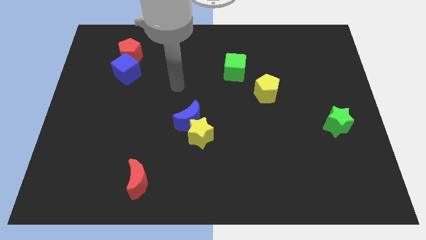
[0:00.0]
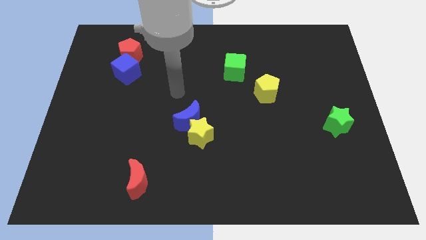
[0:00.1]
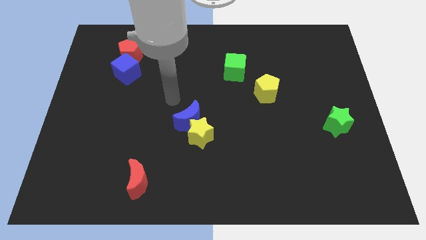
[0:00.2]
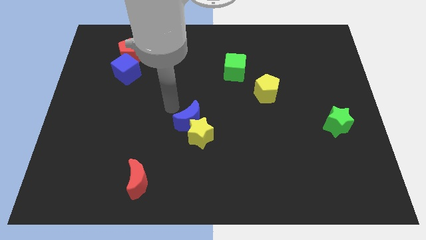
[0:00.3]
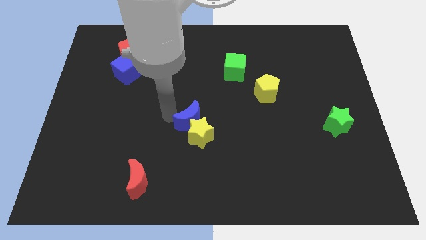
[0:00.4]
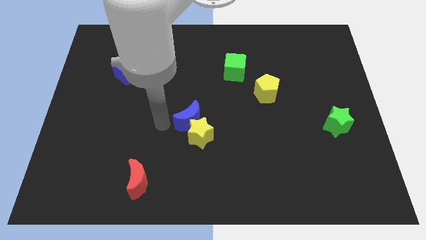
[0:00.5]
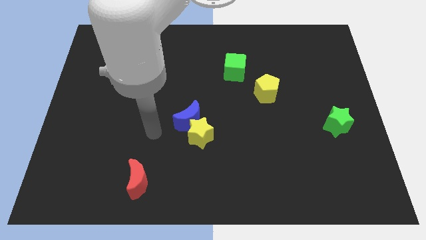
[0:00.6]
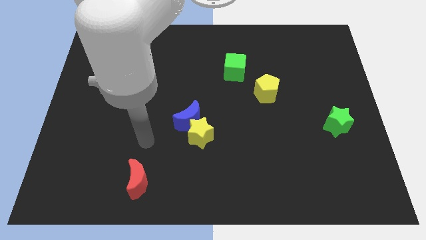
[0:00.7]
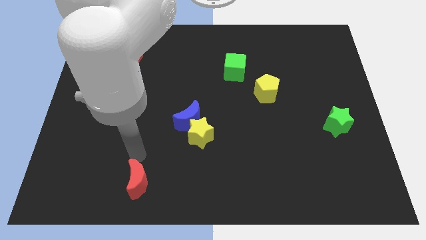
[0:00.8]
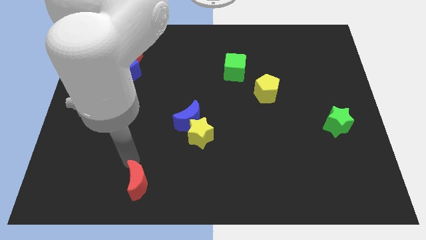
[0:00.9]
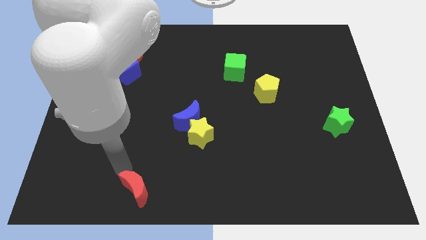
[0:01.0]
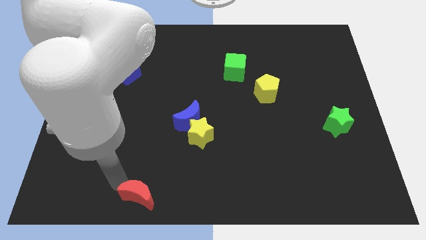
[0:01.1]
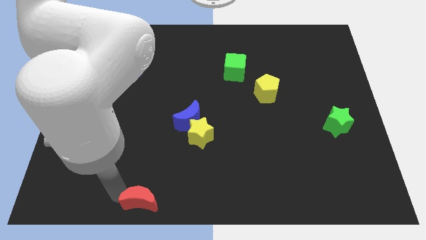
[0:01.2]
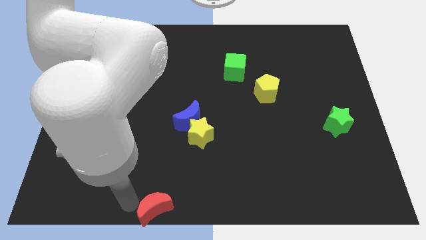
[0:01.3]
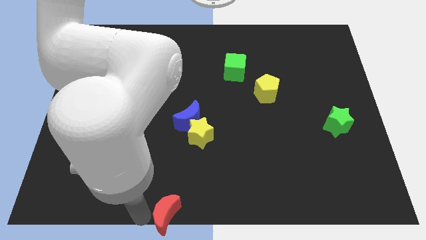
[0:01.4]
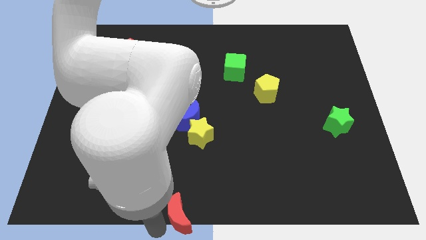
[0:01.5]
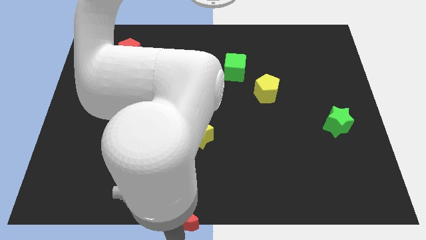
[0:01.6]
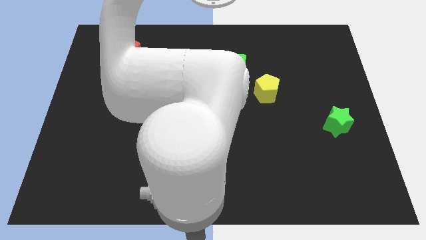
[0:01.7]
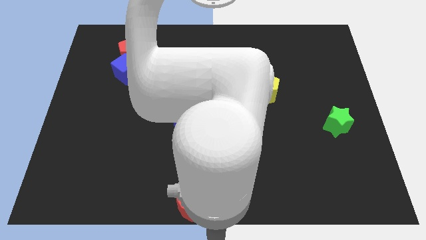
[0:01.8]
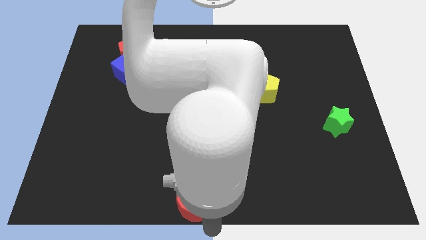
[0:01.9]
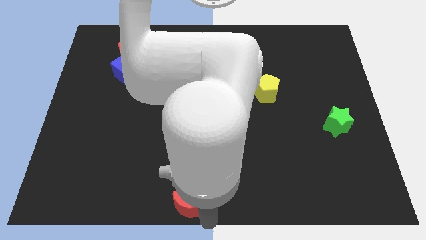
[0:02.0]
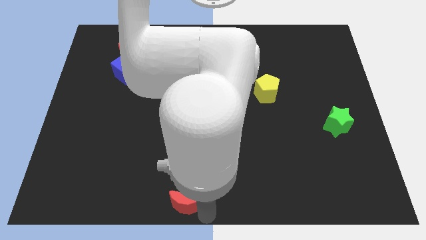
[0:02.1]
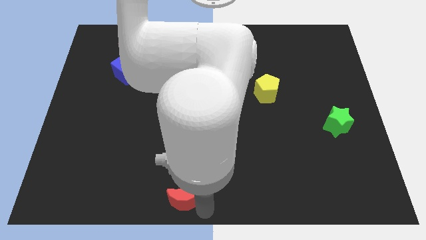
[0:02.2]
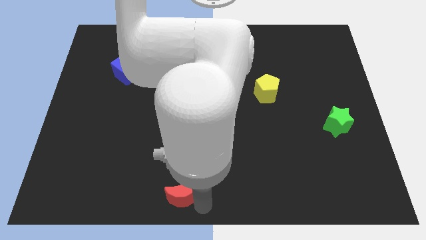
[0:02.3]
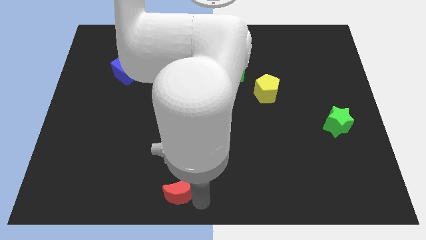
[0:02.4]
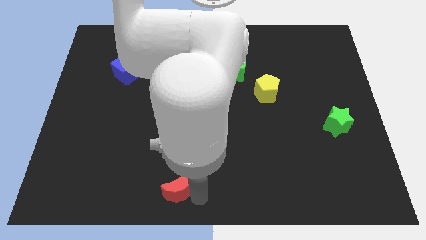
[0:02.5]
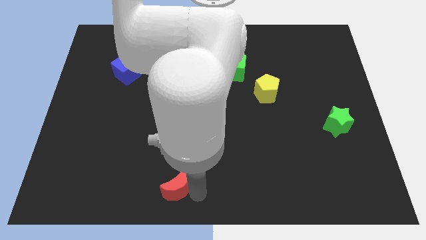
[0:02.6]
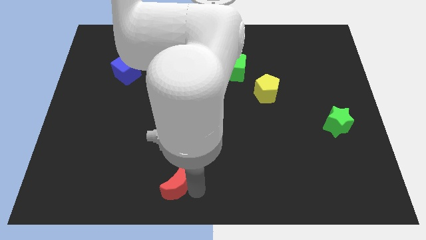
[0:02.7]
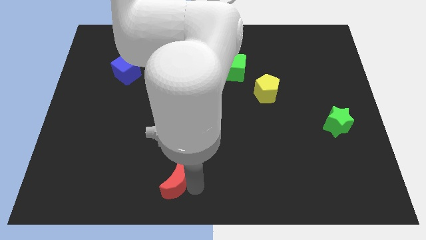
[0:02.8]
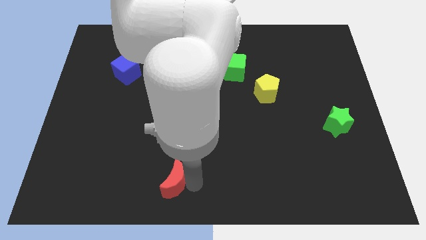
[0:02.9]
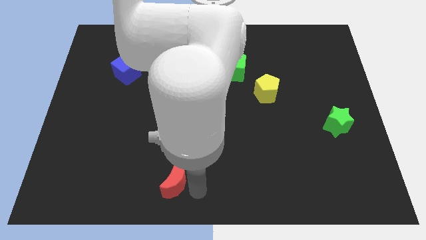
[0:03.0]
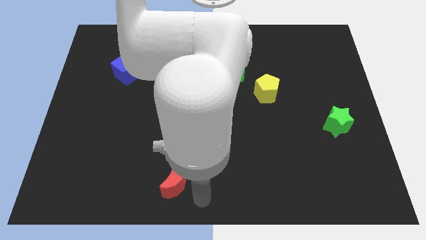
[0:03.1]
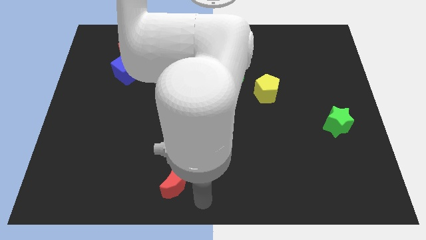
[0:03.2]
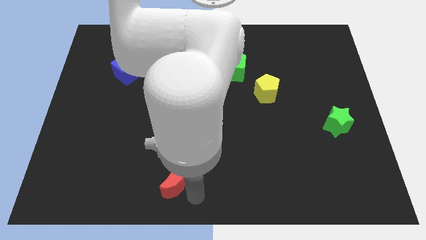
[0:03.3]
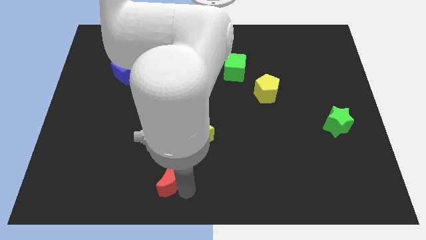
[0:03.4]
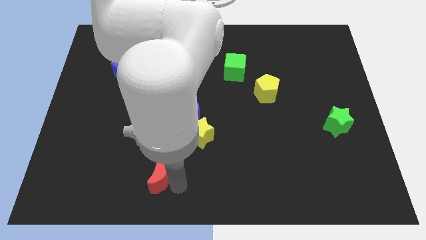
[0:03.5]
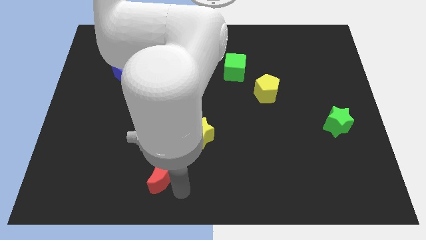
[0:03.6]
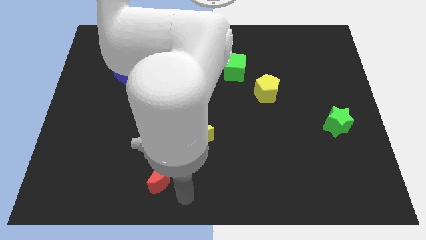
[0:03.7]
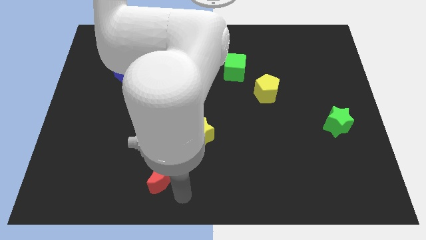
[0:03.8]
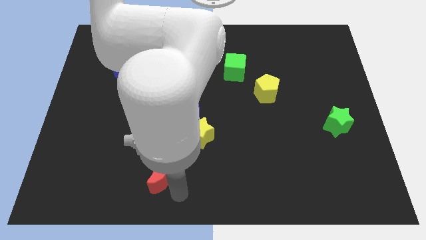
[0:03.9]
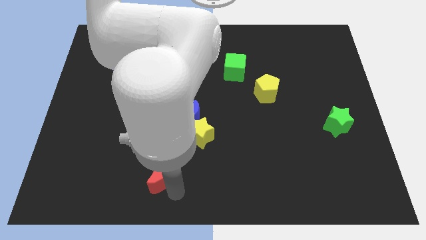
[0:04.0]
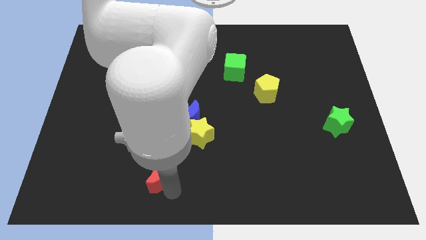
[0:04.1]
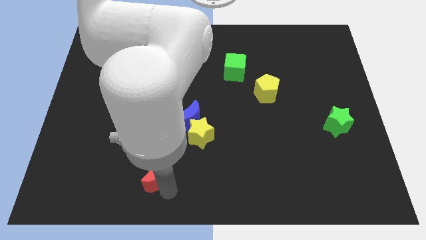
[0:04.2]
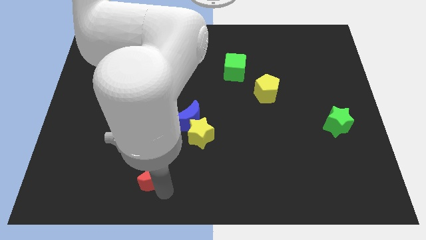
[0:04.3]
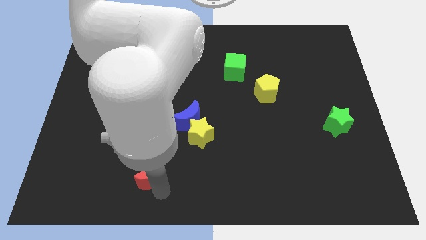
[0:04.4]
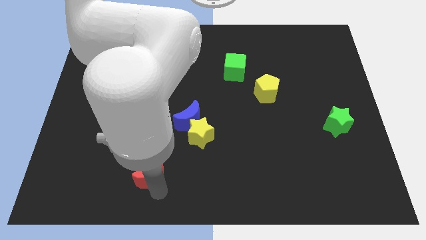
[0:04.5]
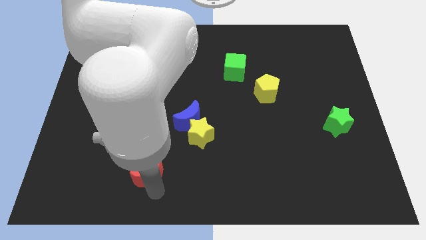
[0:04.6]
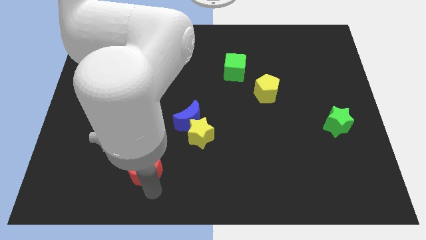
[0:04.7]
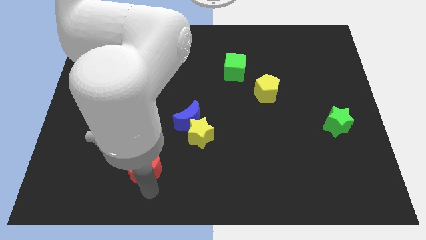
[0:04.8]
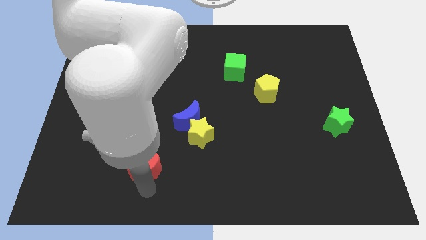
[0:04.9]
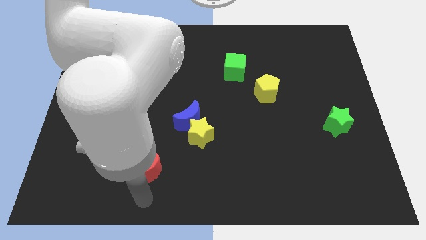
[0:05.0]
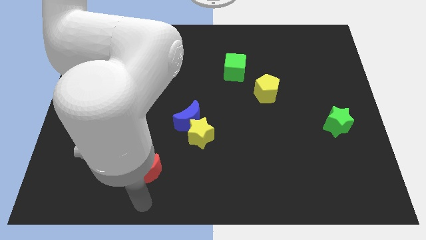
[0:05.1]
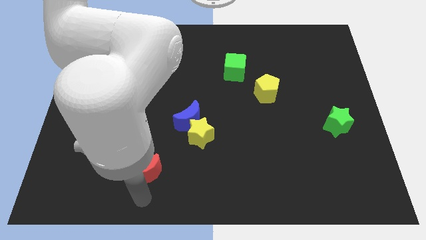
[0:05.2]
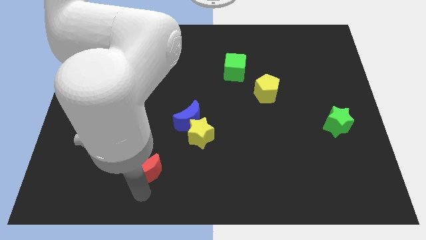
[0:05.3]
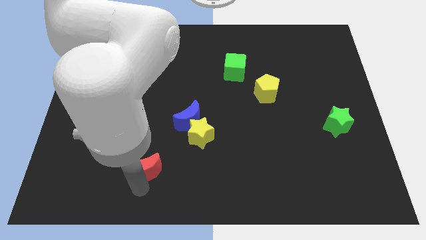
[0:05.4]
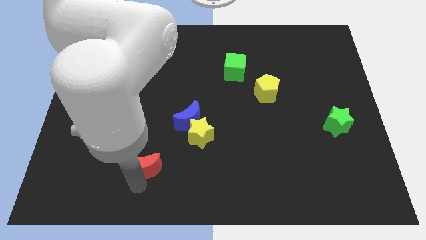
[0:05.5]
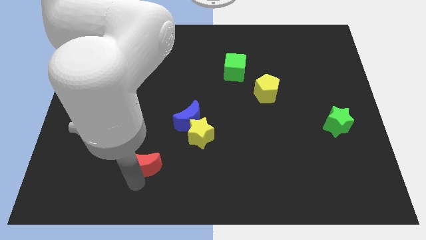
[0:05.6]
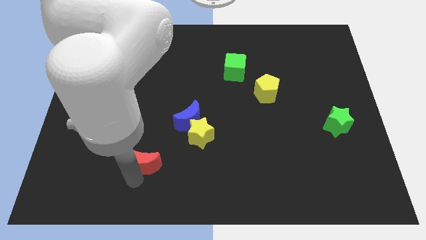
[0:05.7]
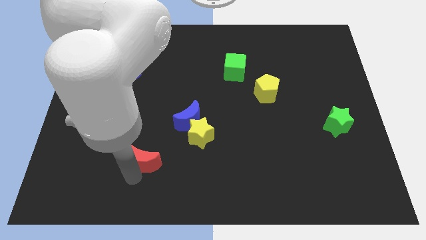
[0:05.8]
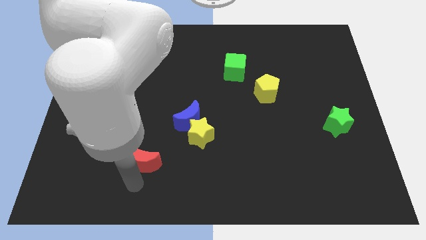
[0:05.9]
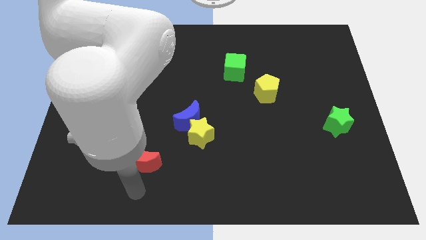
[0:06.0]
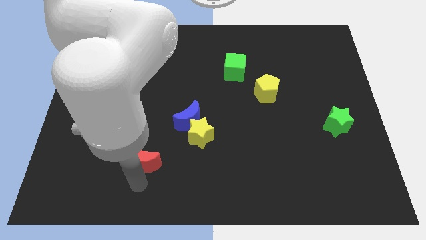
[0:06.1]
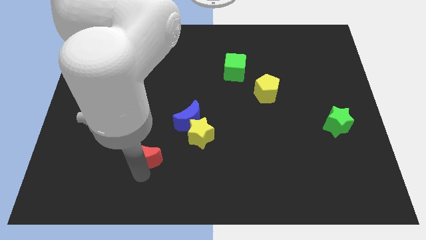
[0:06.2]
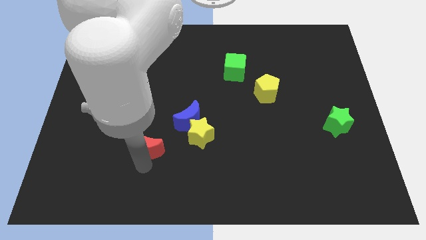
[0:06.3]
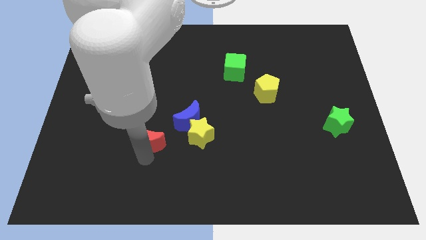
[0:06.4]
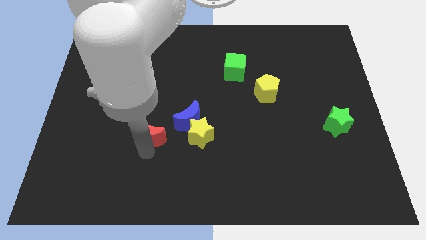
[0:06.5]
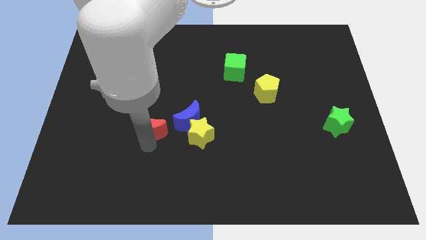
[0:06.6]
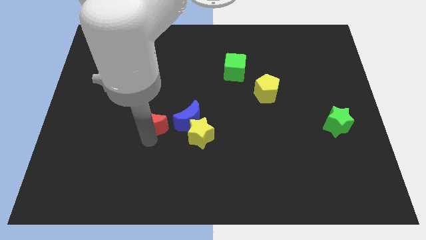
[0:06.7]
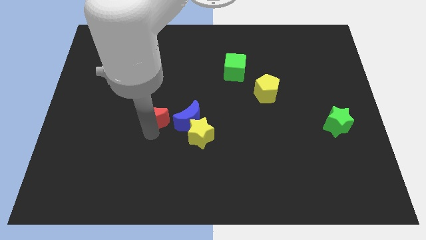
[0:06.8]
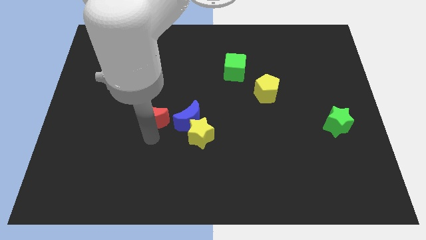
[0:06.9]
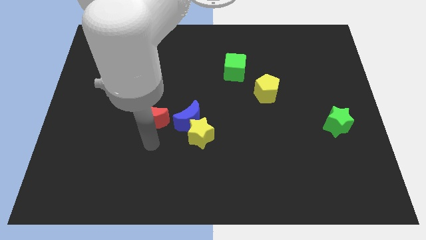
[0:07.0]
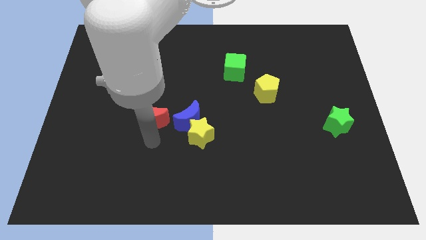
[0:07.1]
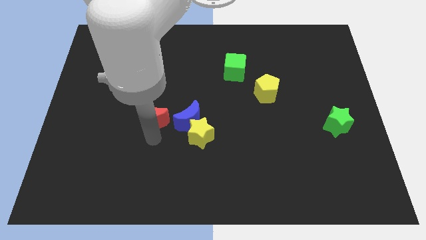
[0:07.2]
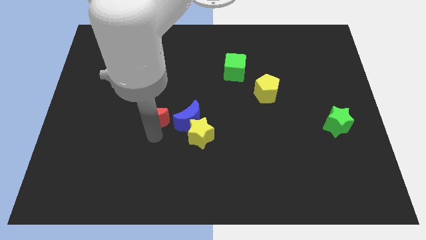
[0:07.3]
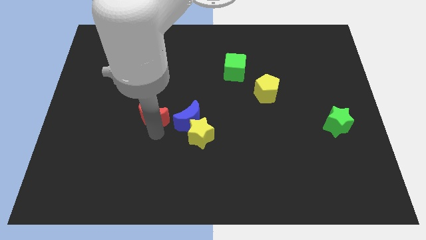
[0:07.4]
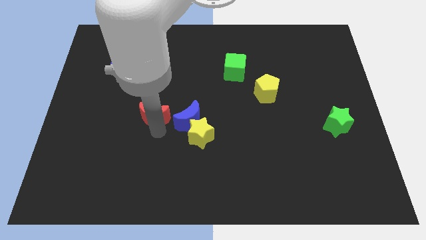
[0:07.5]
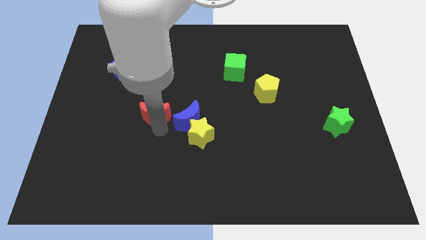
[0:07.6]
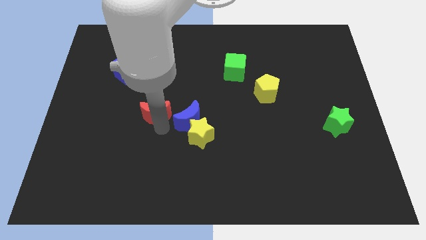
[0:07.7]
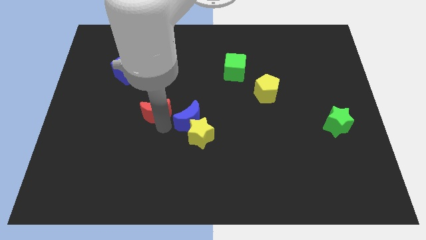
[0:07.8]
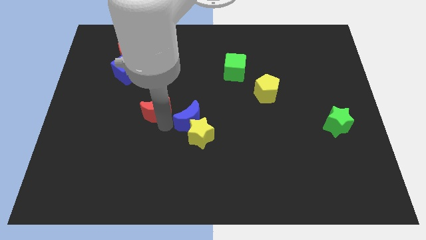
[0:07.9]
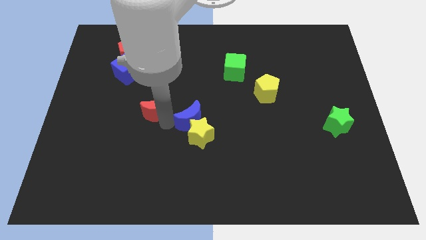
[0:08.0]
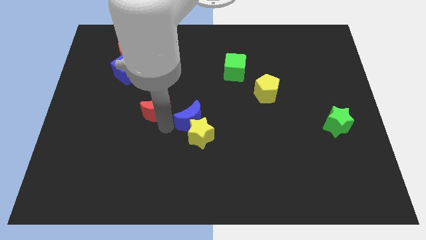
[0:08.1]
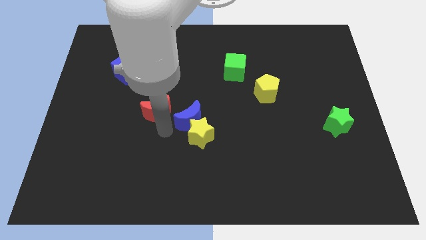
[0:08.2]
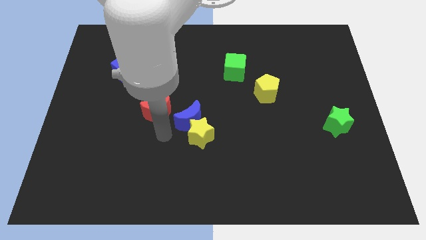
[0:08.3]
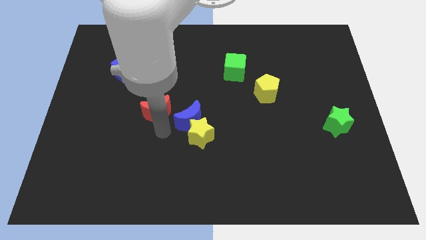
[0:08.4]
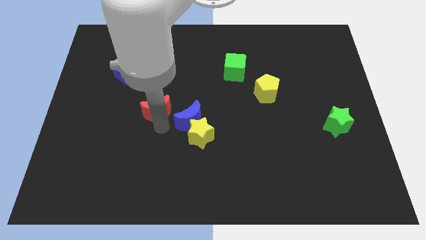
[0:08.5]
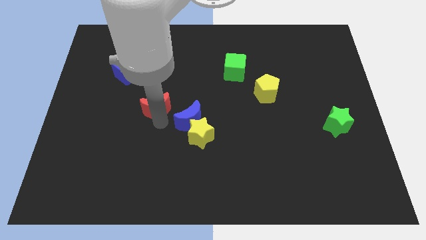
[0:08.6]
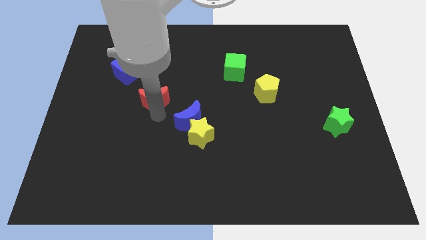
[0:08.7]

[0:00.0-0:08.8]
slide the red moon up
